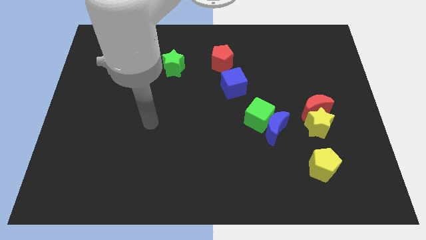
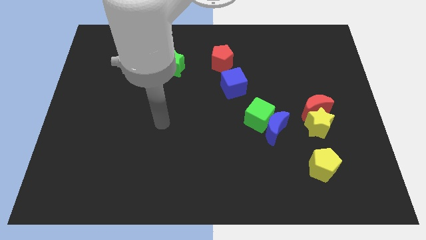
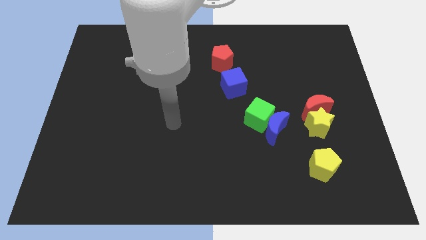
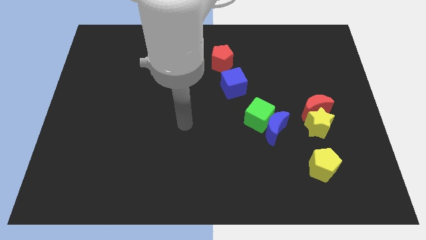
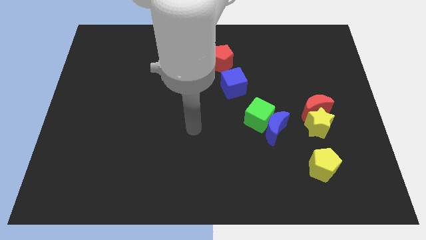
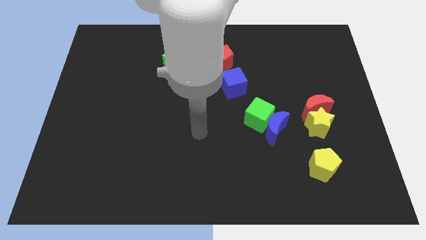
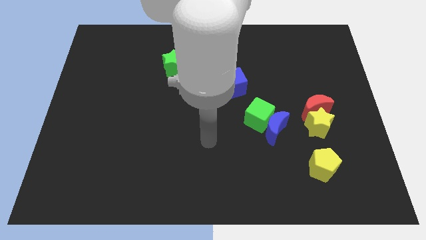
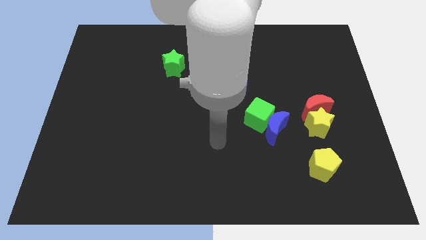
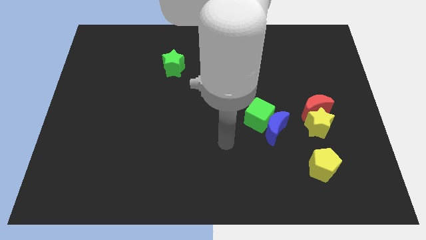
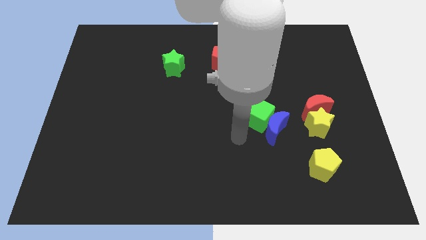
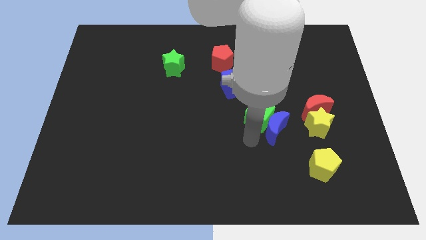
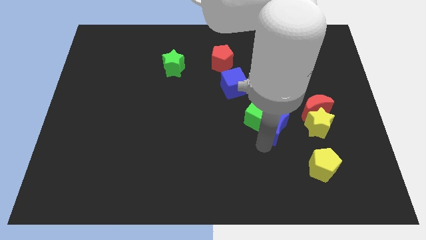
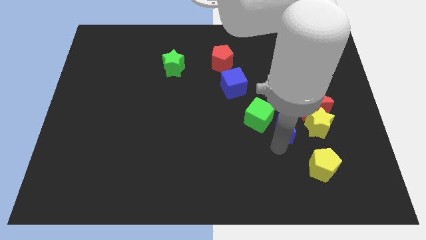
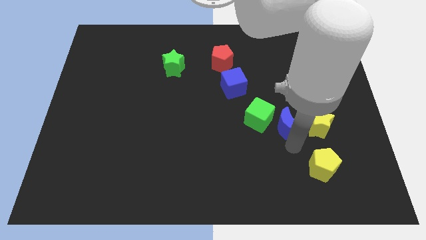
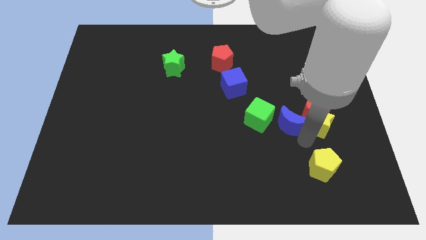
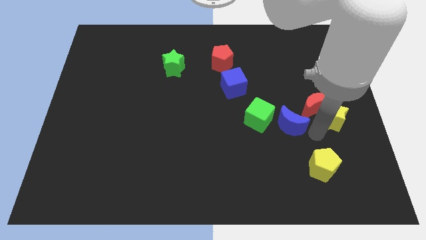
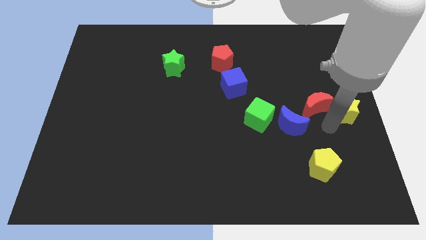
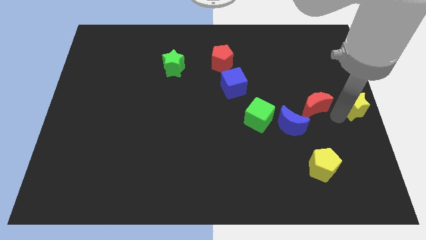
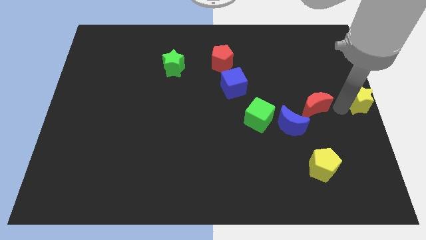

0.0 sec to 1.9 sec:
move the red moon away from the yellow star

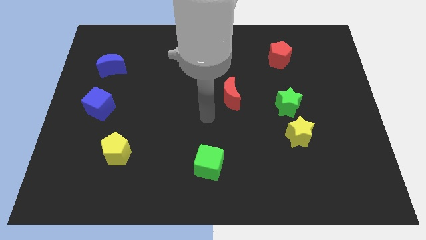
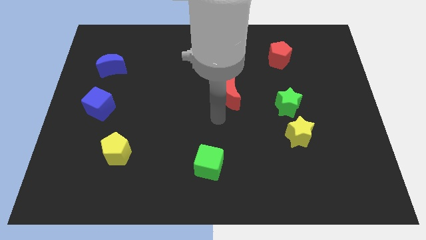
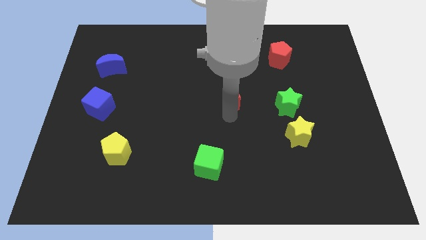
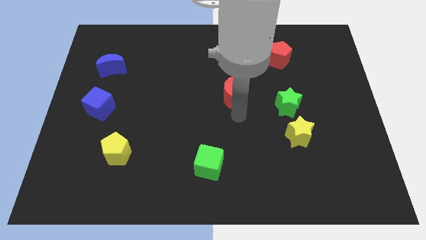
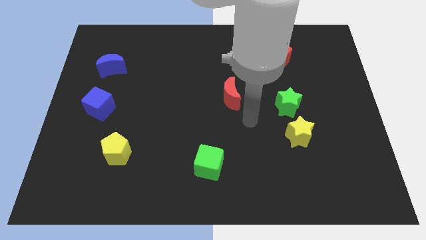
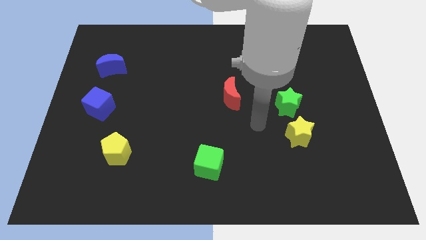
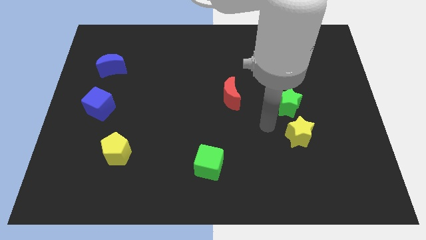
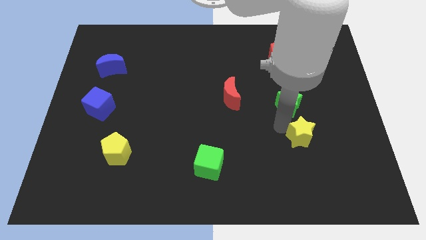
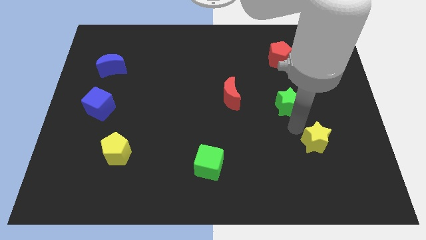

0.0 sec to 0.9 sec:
move the green star away from the yellow star

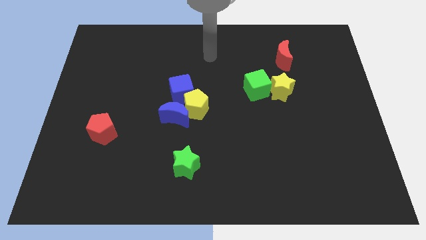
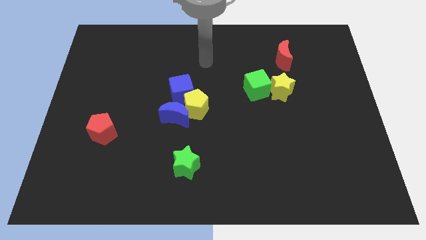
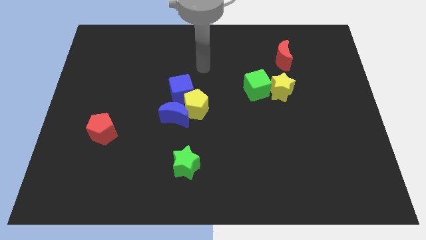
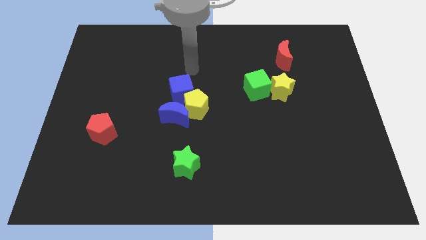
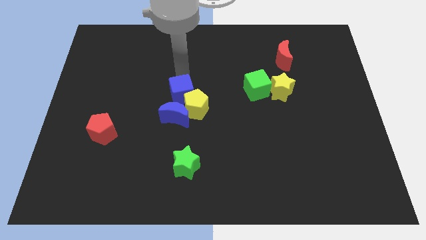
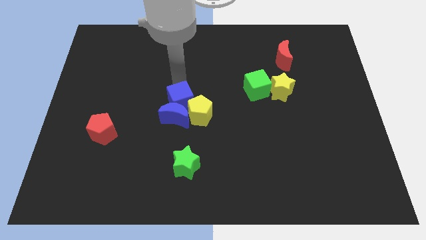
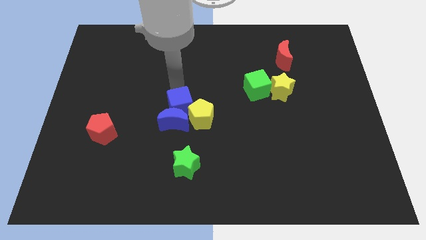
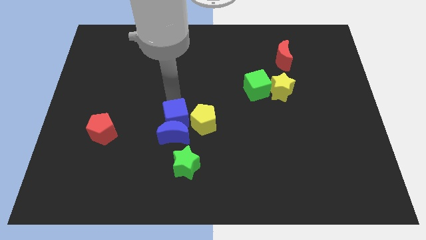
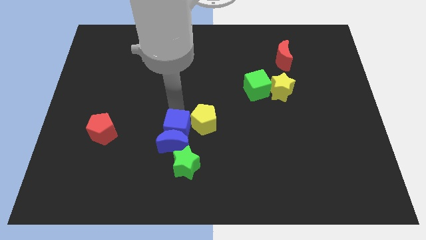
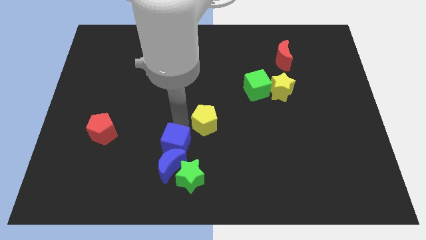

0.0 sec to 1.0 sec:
pull the yellow pentagon apart from the blue moon and blue cube

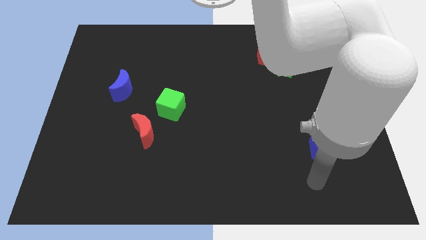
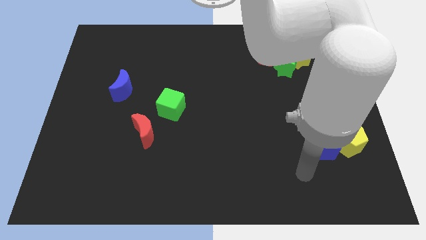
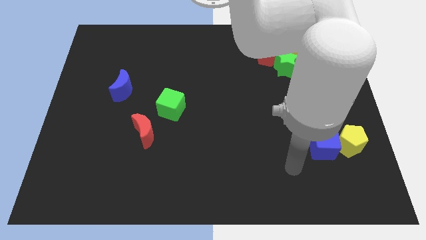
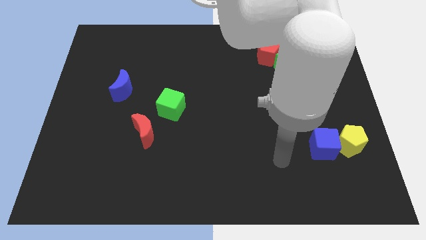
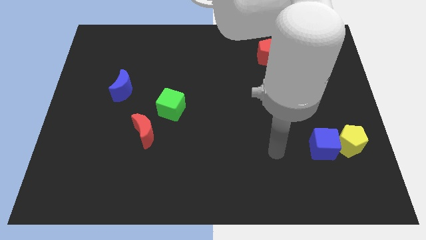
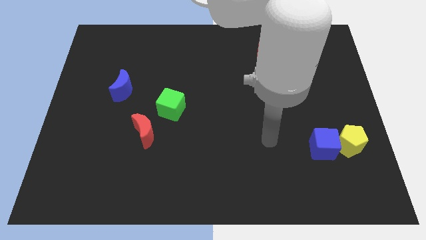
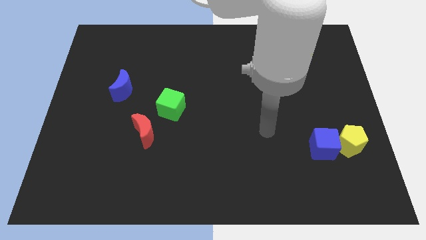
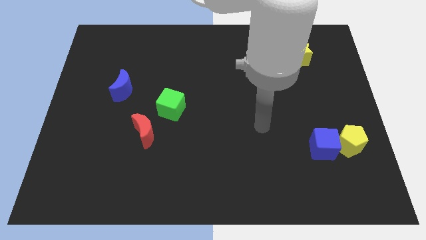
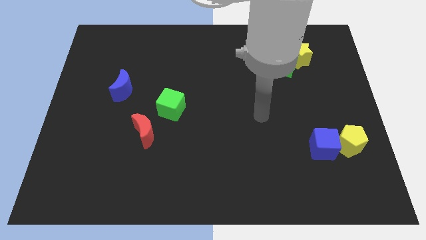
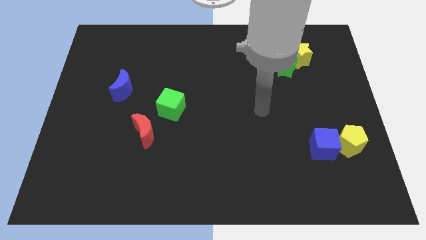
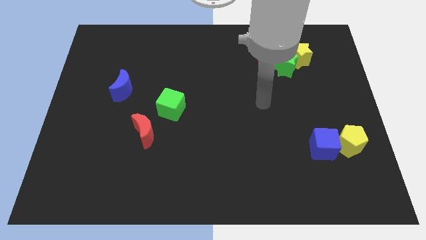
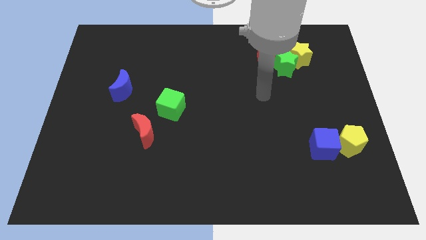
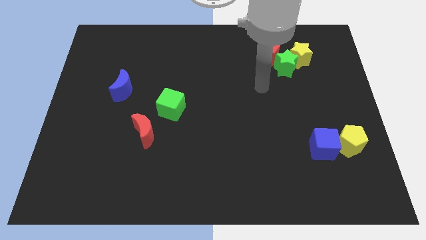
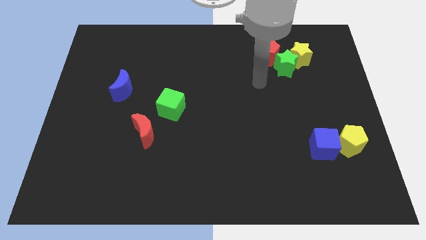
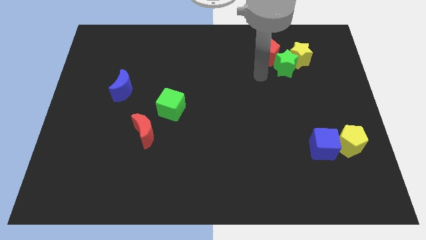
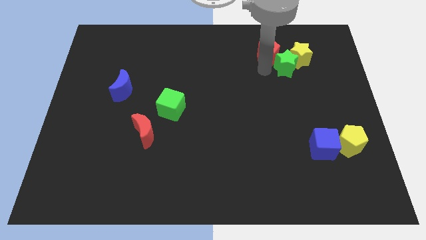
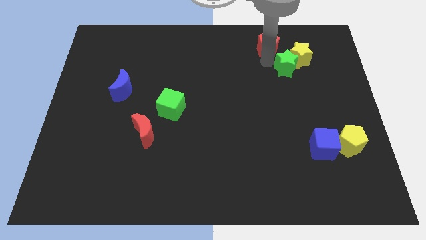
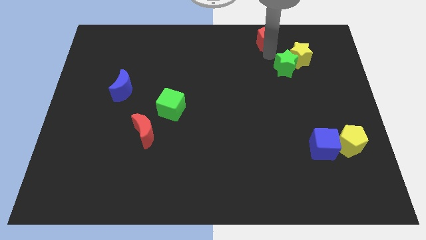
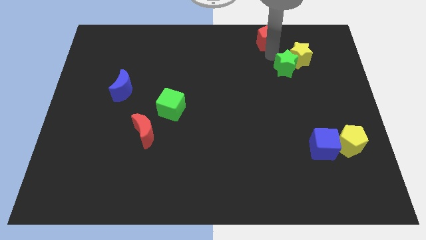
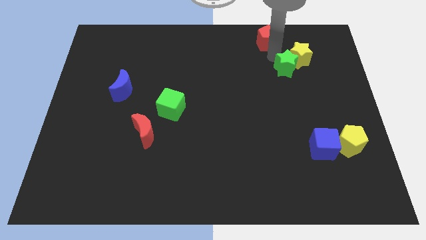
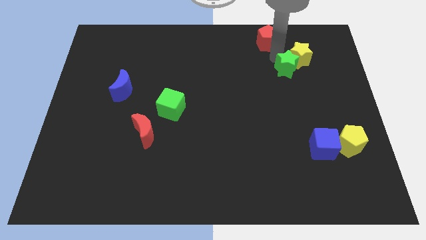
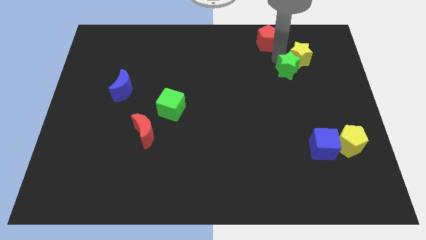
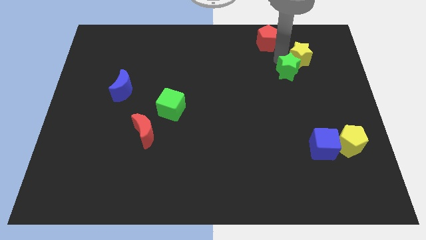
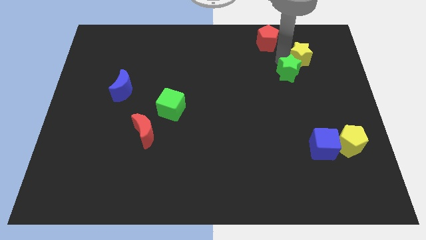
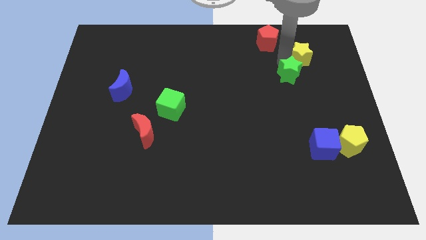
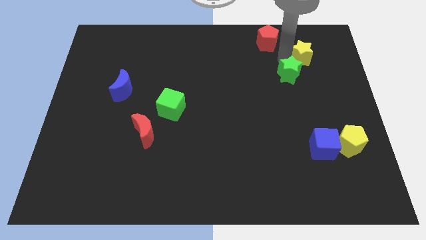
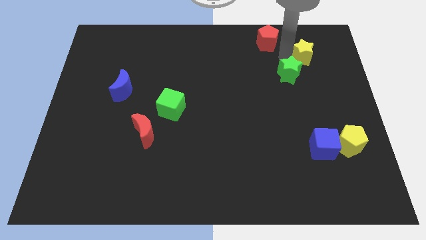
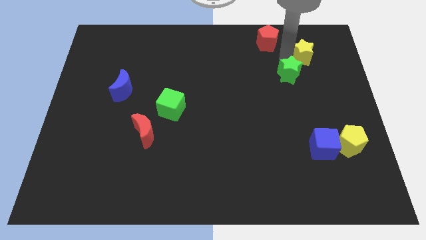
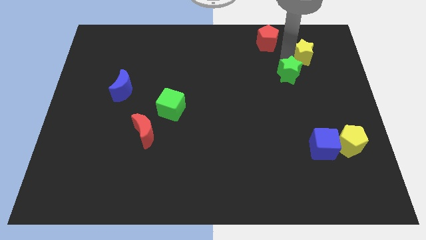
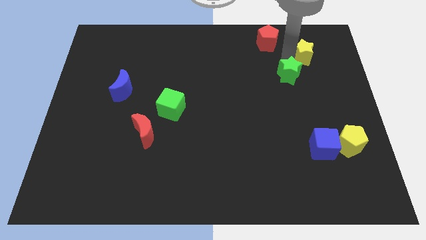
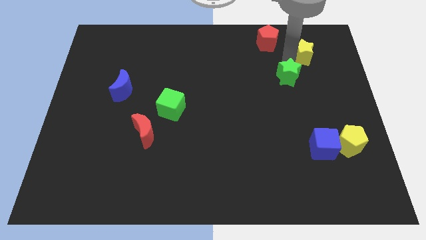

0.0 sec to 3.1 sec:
pull the green star apart from the yellow star and red pentagon

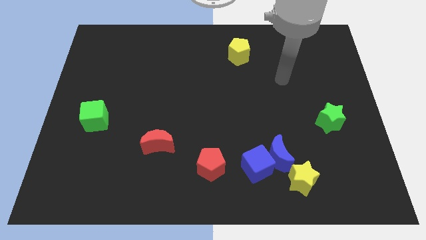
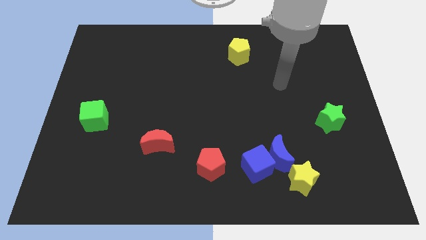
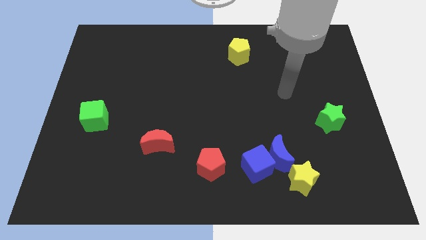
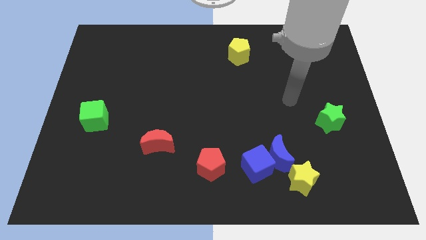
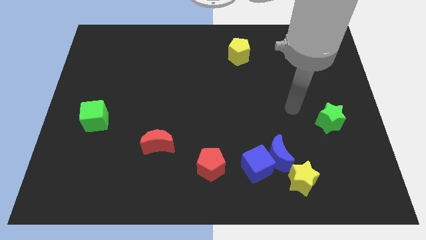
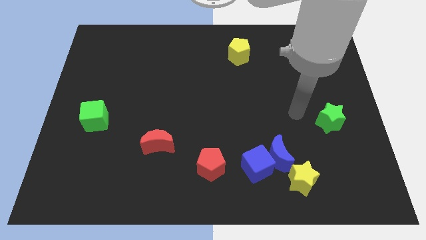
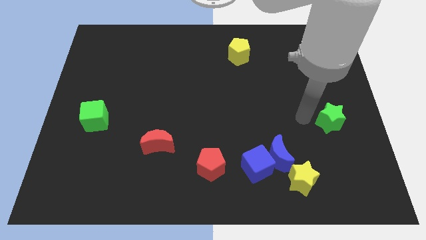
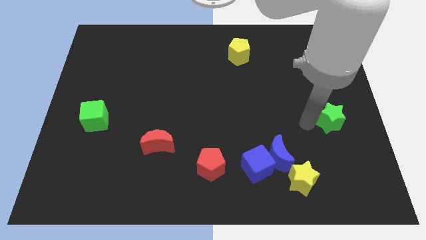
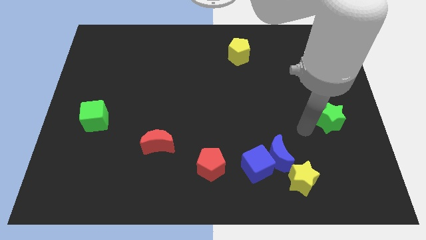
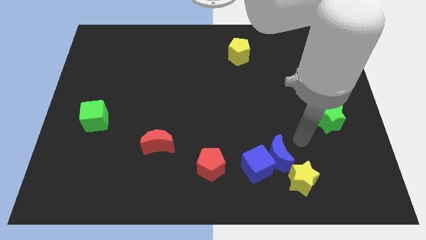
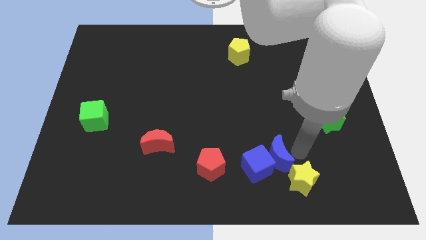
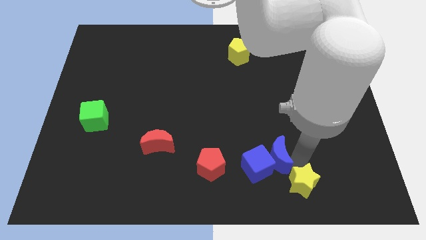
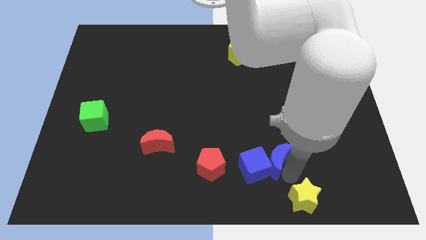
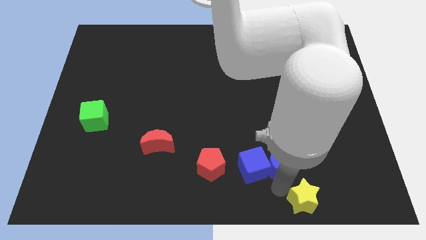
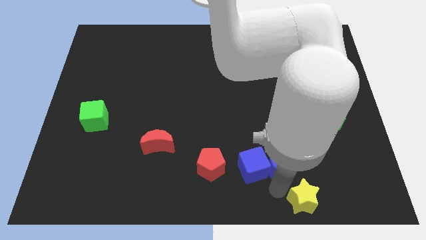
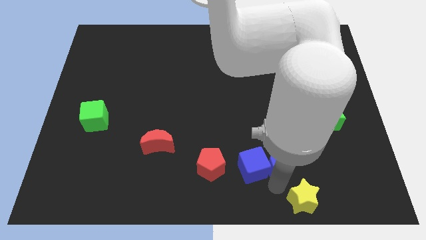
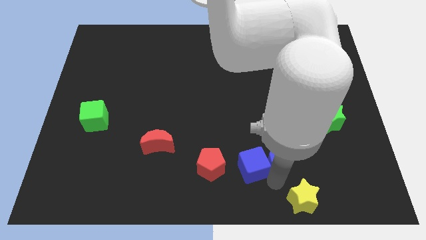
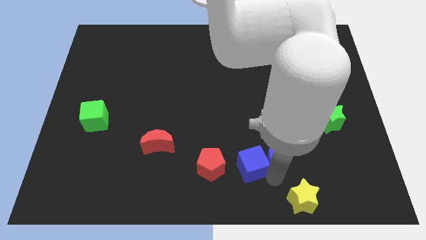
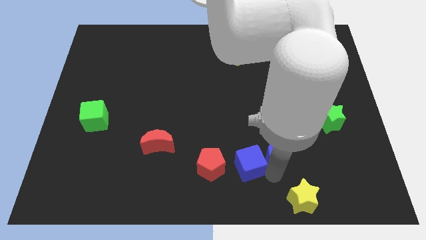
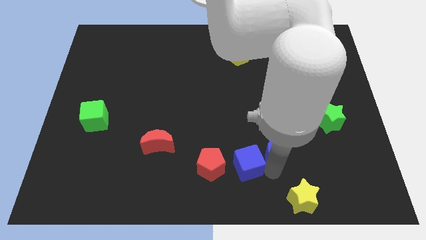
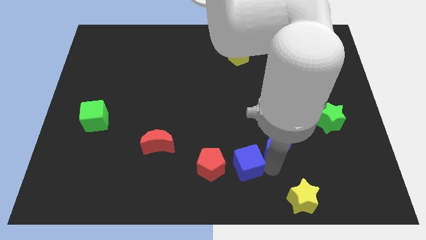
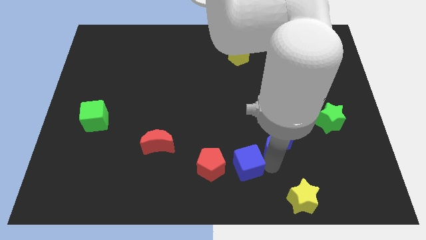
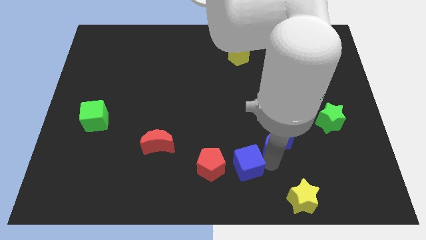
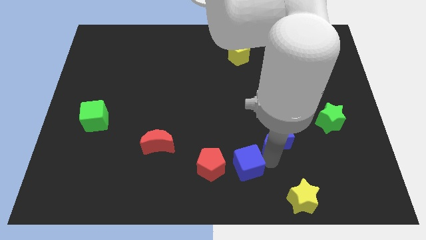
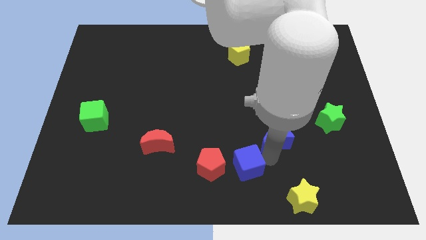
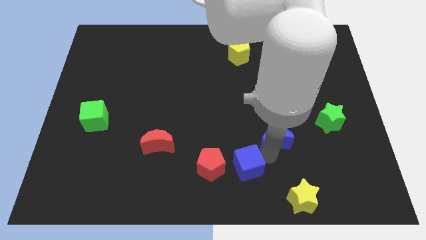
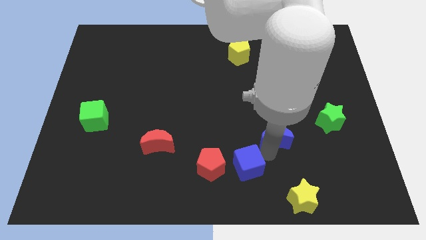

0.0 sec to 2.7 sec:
pull the blue moon apart from the blue cube and yellow star
